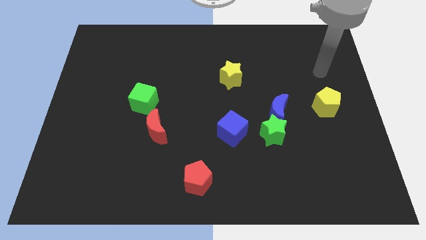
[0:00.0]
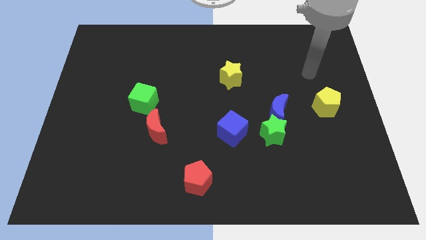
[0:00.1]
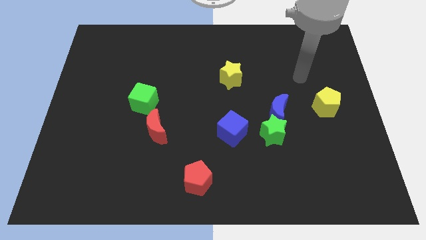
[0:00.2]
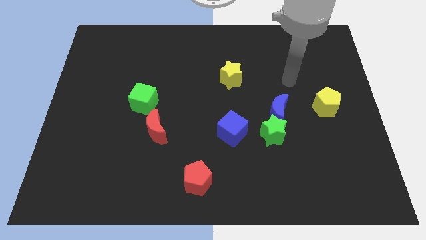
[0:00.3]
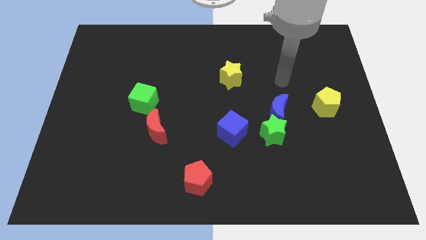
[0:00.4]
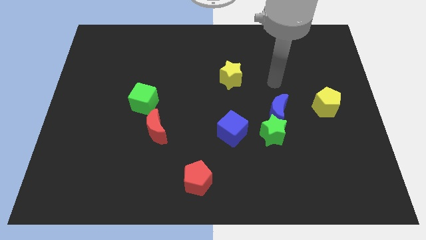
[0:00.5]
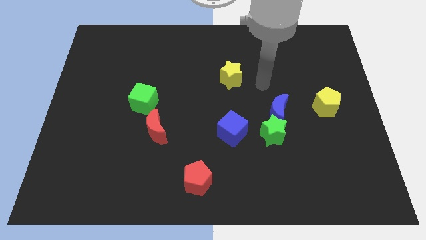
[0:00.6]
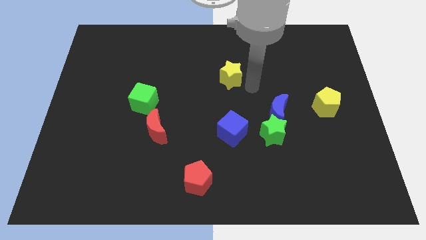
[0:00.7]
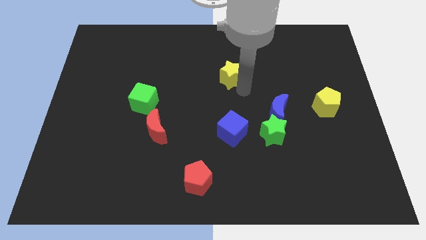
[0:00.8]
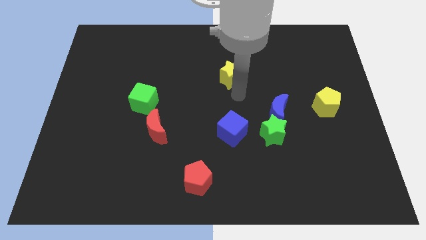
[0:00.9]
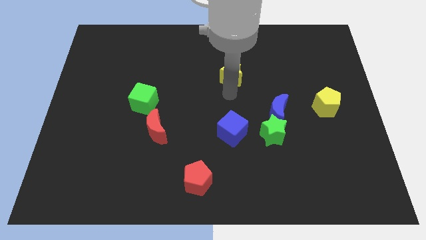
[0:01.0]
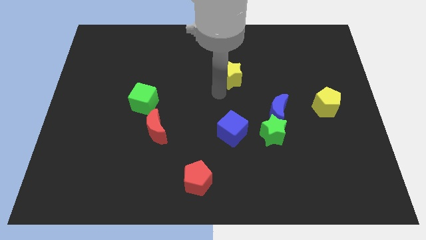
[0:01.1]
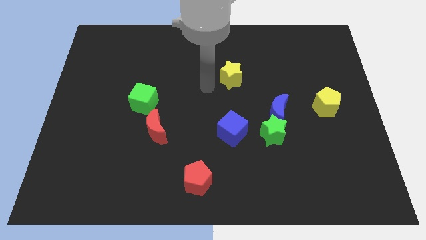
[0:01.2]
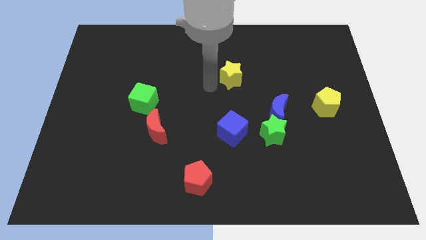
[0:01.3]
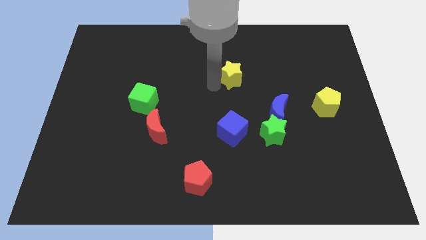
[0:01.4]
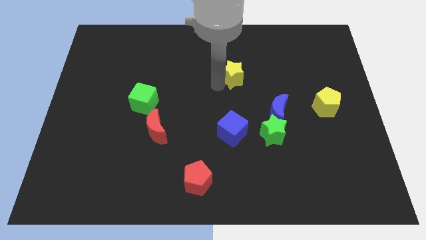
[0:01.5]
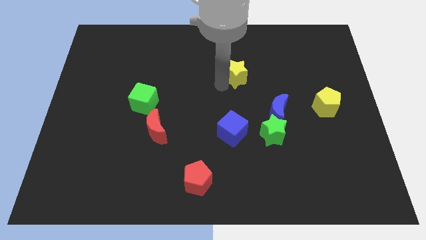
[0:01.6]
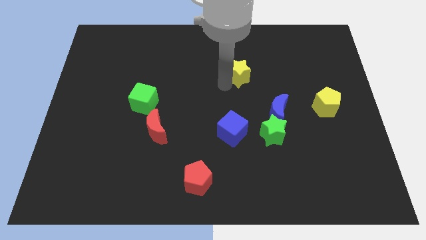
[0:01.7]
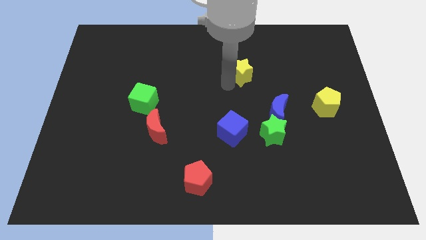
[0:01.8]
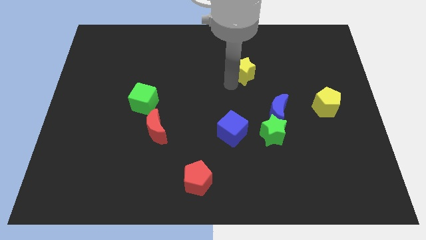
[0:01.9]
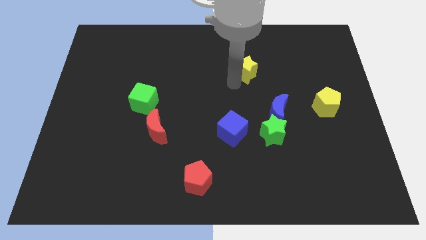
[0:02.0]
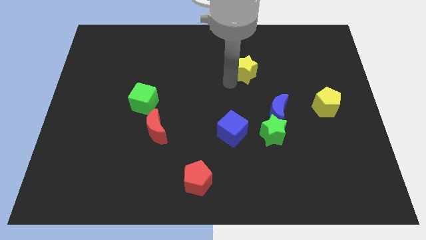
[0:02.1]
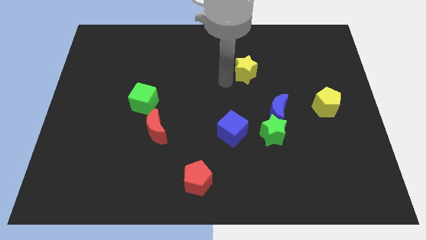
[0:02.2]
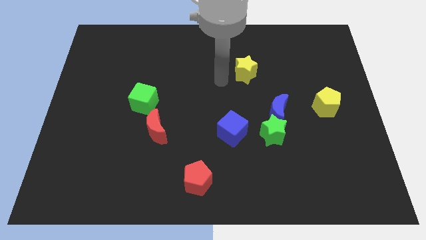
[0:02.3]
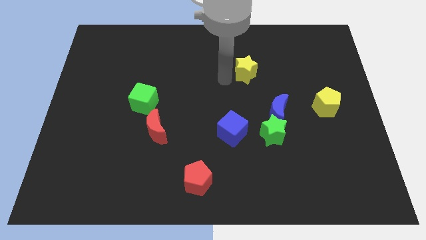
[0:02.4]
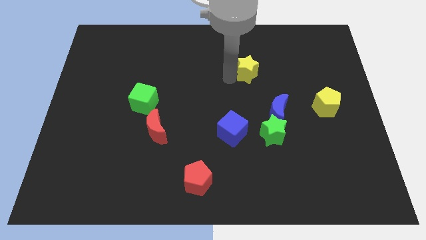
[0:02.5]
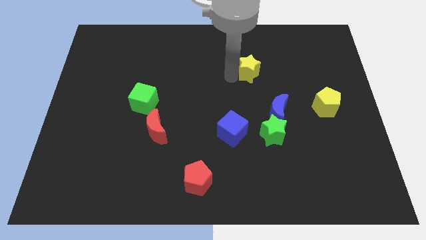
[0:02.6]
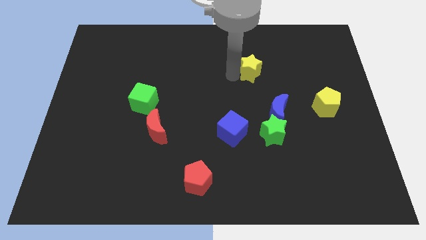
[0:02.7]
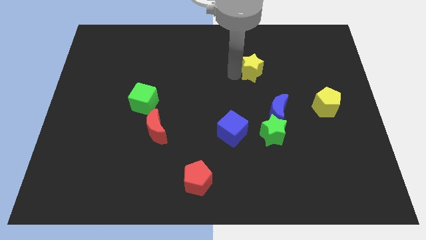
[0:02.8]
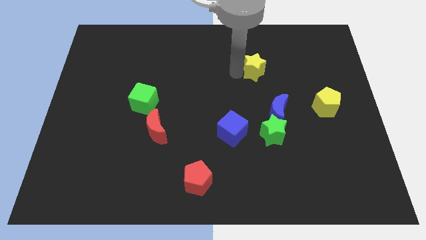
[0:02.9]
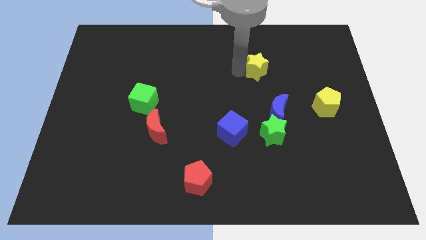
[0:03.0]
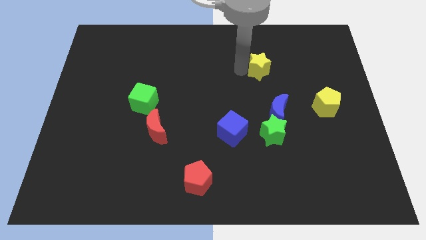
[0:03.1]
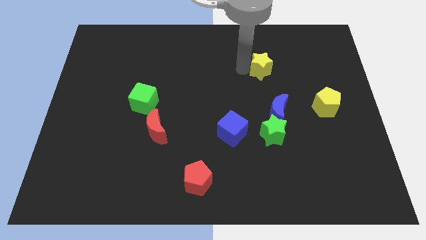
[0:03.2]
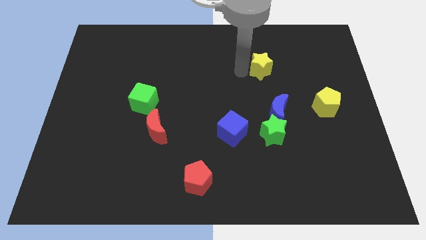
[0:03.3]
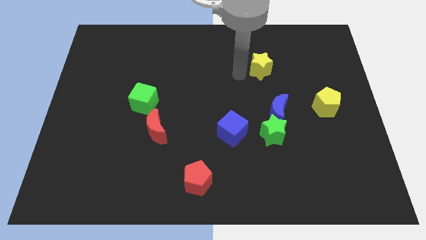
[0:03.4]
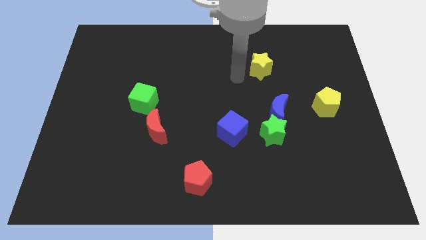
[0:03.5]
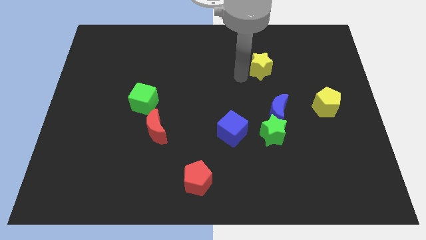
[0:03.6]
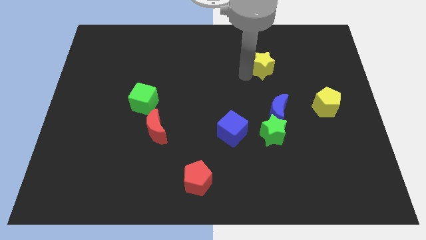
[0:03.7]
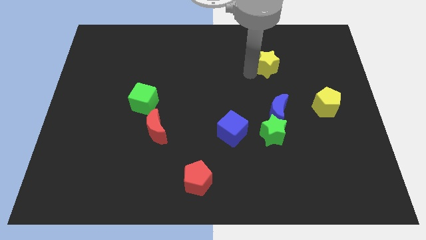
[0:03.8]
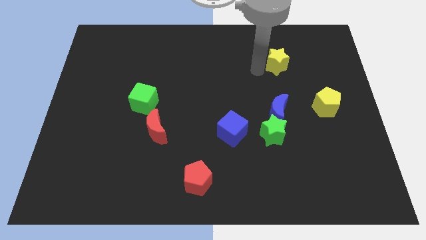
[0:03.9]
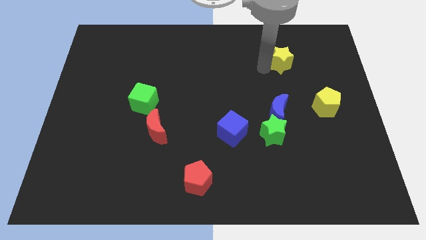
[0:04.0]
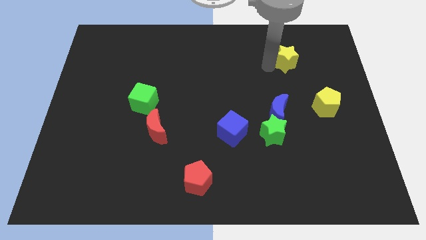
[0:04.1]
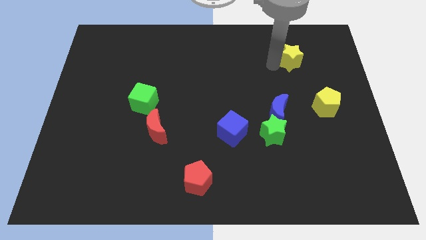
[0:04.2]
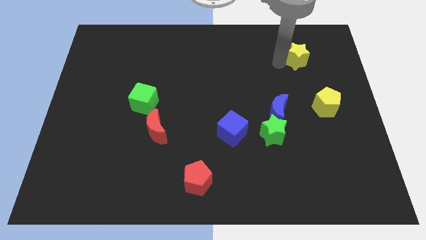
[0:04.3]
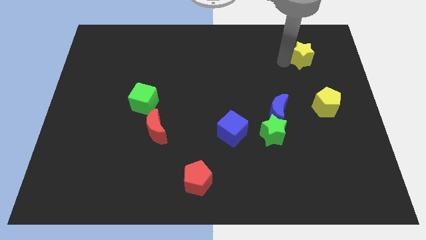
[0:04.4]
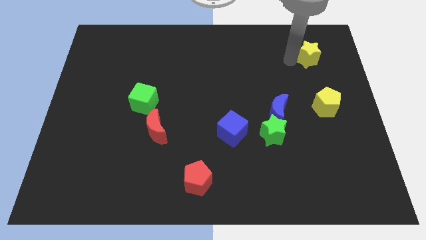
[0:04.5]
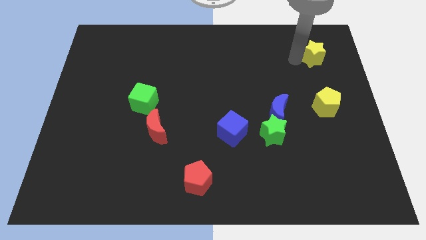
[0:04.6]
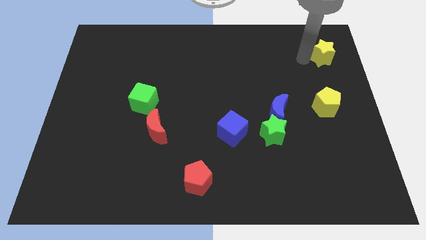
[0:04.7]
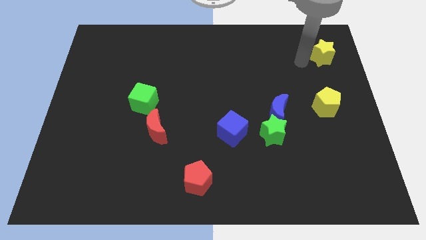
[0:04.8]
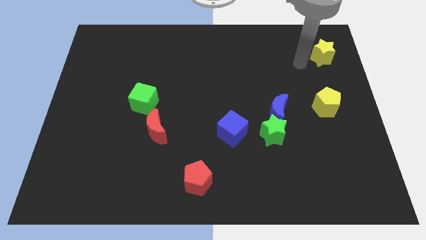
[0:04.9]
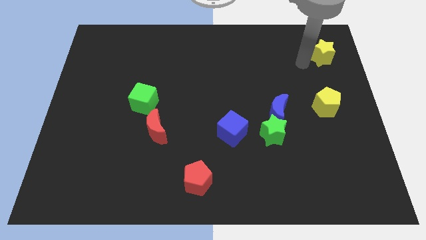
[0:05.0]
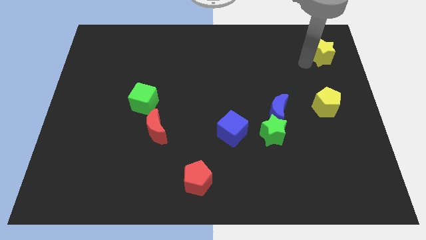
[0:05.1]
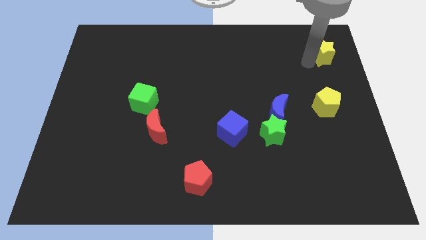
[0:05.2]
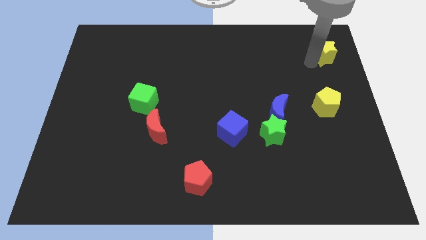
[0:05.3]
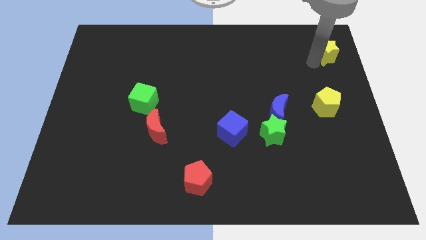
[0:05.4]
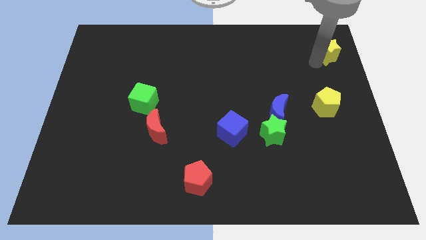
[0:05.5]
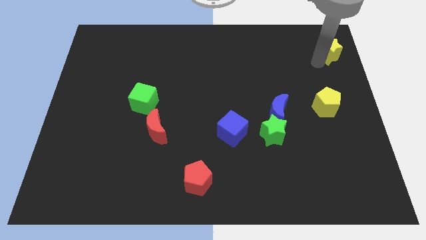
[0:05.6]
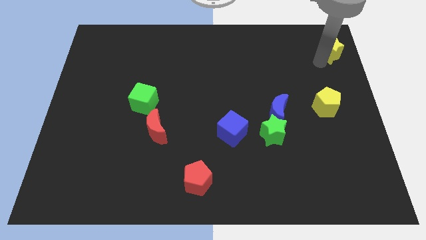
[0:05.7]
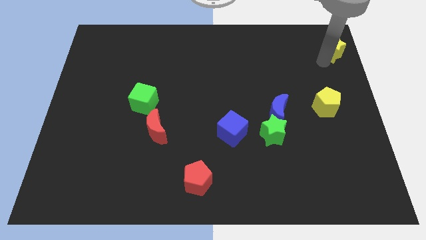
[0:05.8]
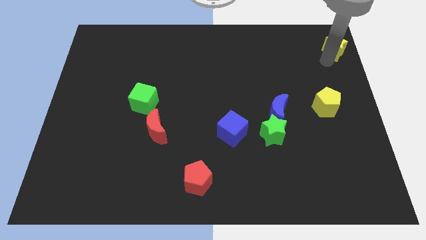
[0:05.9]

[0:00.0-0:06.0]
move the yellow star to the top right
